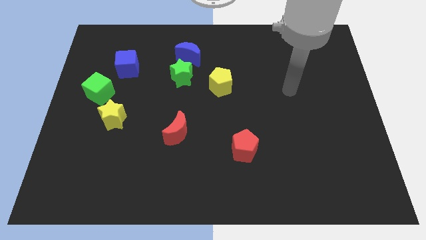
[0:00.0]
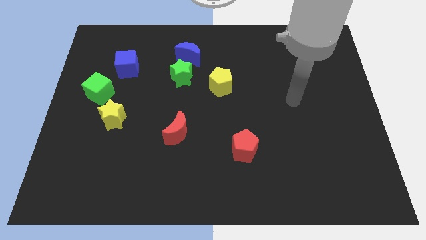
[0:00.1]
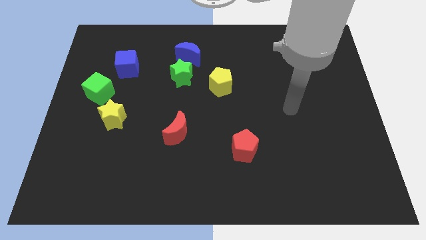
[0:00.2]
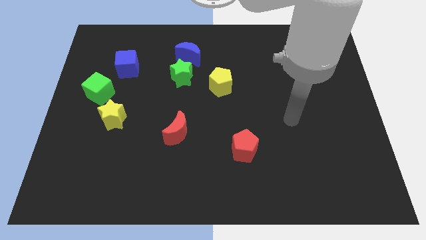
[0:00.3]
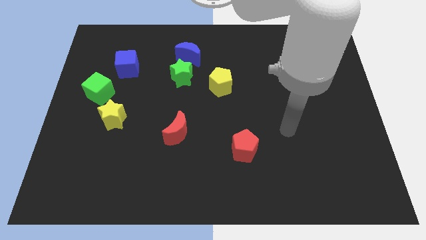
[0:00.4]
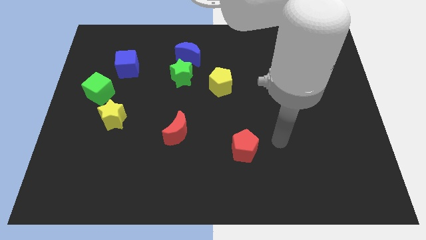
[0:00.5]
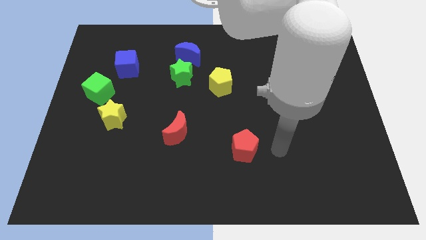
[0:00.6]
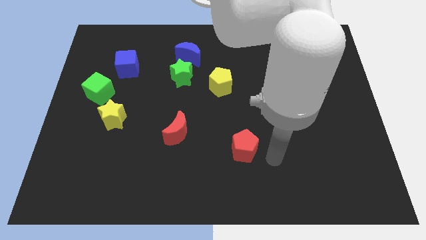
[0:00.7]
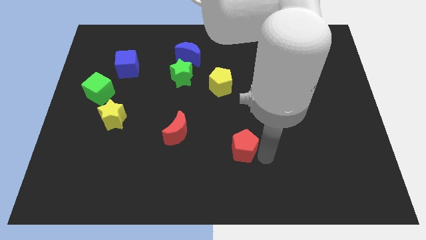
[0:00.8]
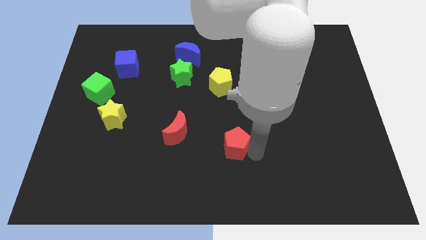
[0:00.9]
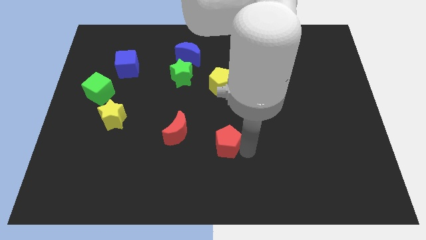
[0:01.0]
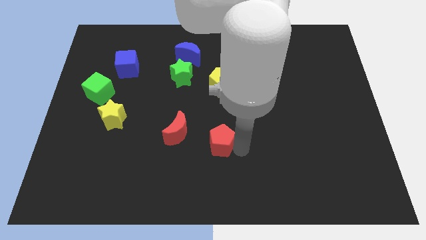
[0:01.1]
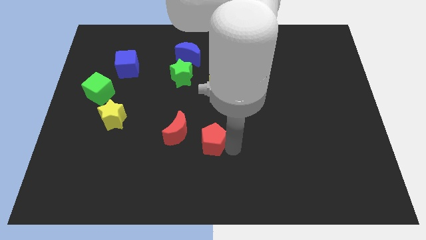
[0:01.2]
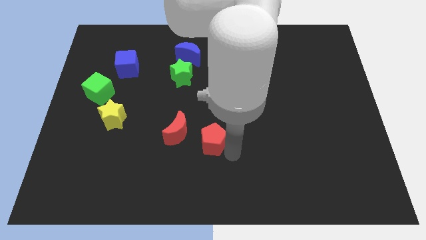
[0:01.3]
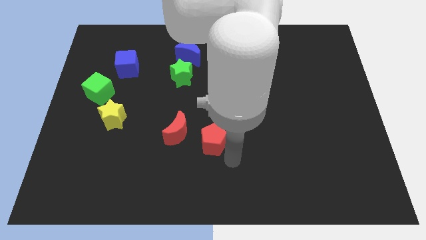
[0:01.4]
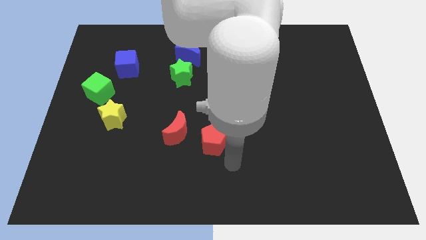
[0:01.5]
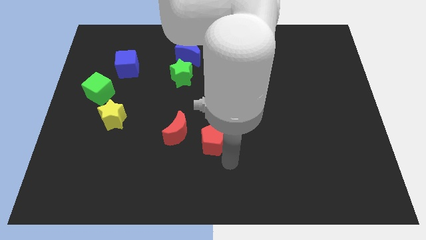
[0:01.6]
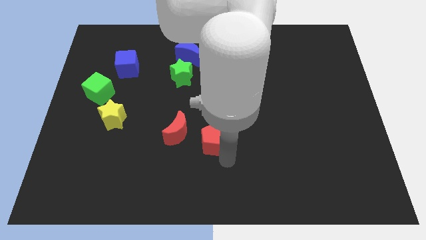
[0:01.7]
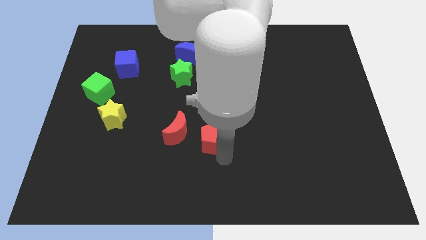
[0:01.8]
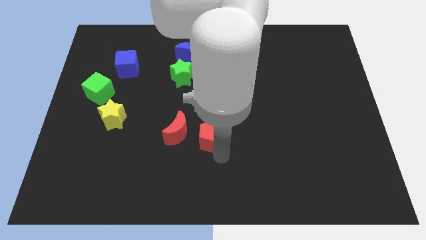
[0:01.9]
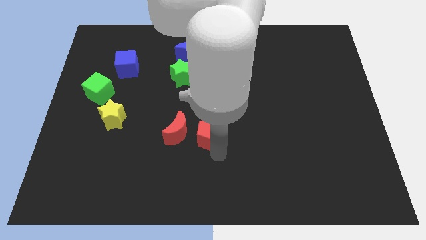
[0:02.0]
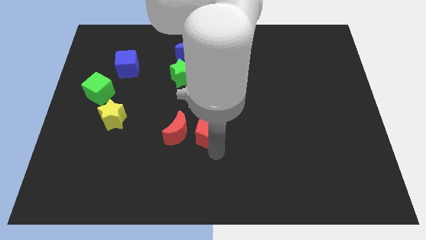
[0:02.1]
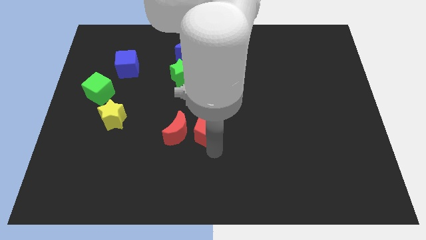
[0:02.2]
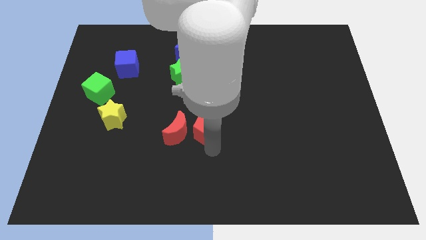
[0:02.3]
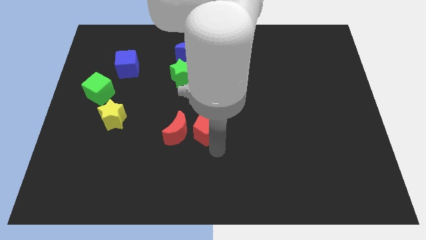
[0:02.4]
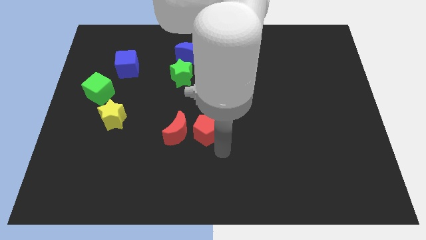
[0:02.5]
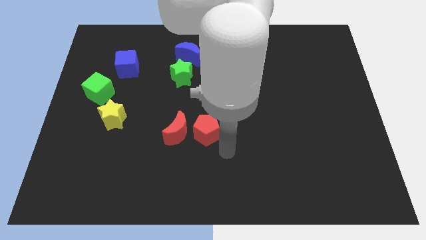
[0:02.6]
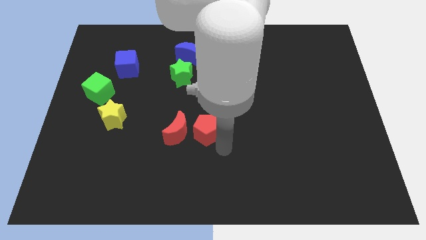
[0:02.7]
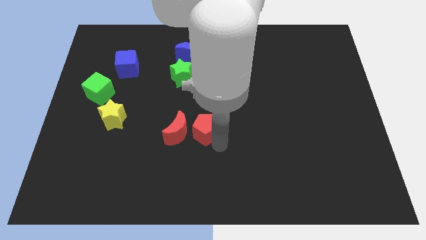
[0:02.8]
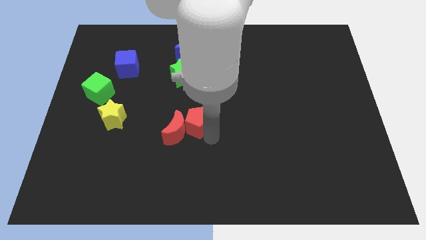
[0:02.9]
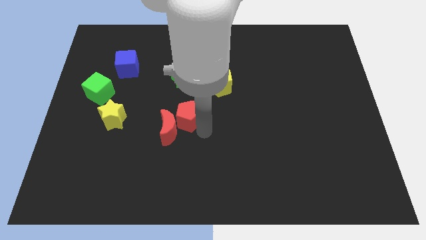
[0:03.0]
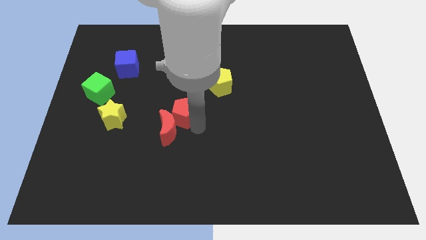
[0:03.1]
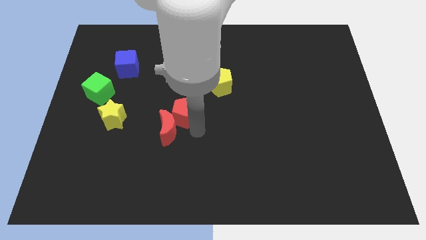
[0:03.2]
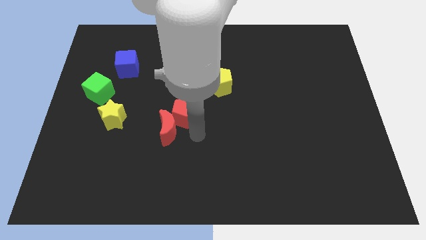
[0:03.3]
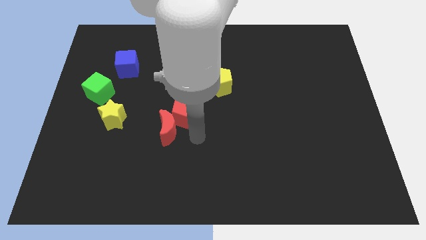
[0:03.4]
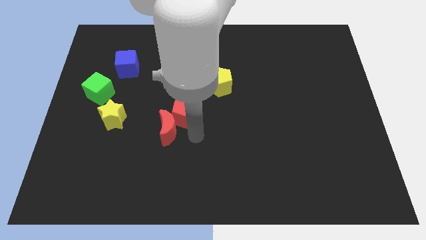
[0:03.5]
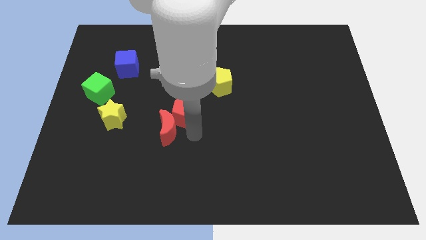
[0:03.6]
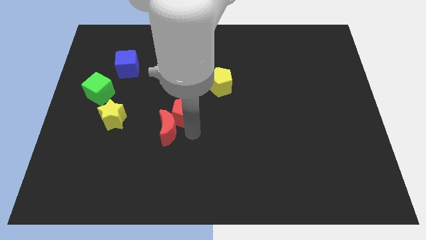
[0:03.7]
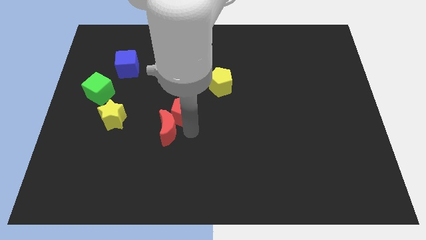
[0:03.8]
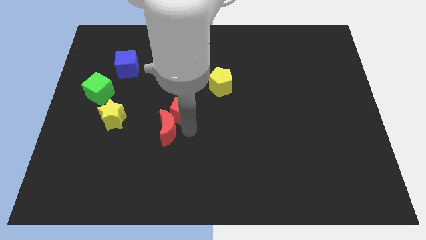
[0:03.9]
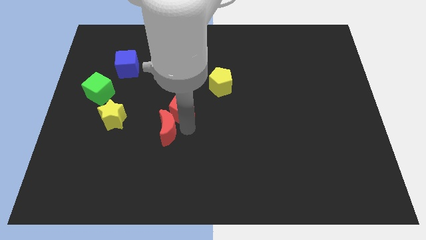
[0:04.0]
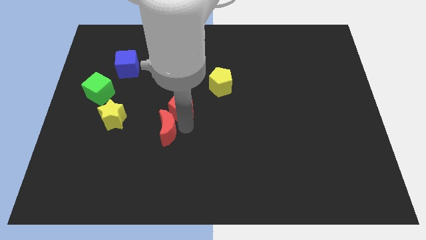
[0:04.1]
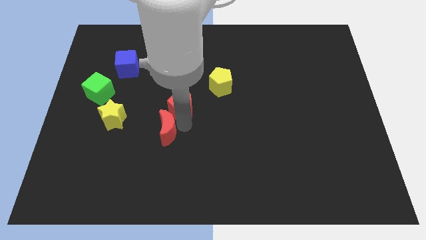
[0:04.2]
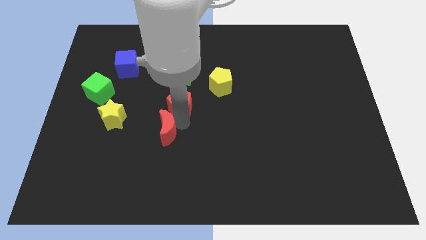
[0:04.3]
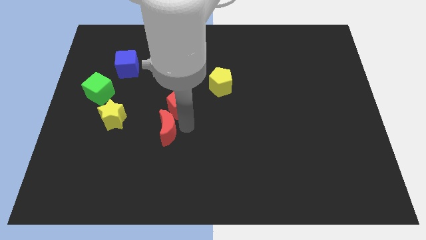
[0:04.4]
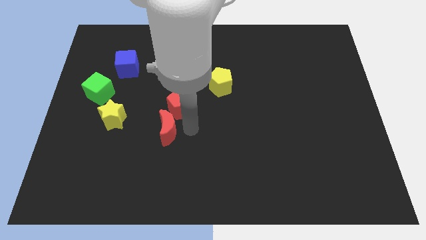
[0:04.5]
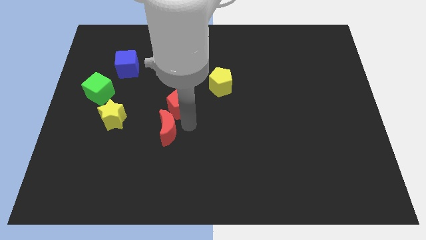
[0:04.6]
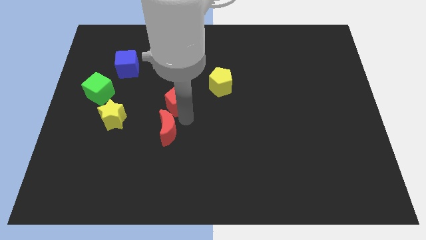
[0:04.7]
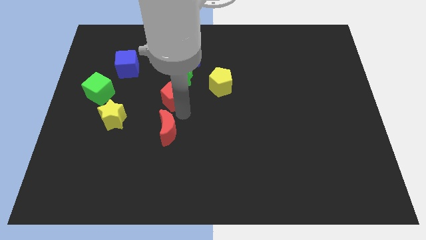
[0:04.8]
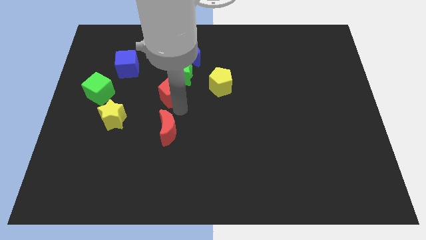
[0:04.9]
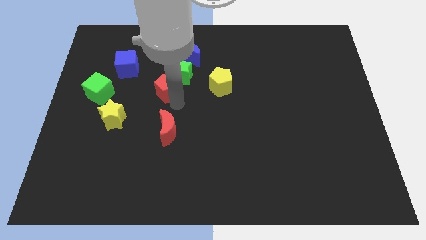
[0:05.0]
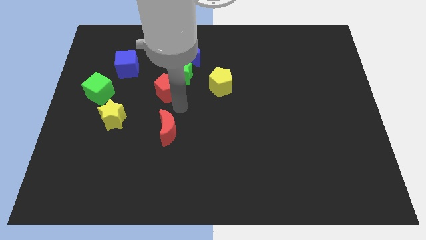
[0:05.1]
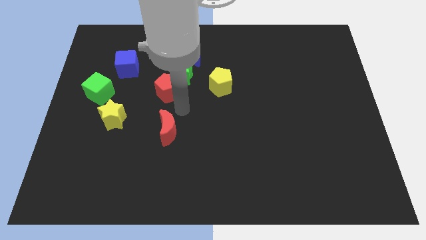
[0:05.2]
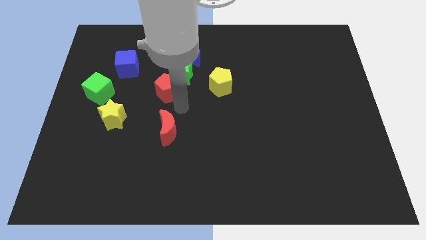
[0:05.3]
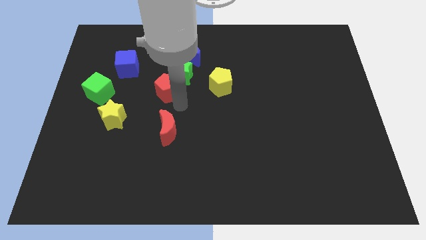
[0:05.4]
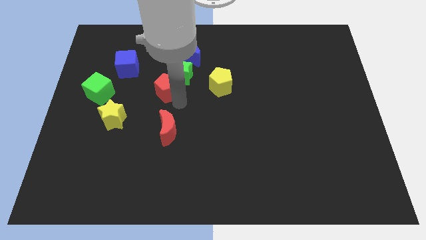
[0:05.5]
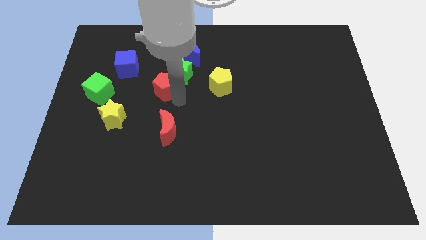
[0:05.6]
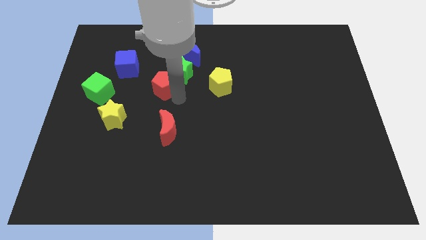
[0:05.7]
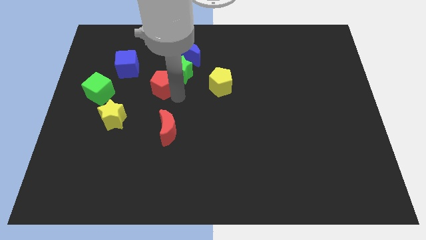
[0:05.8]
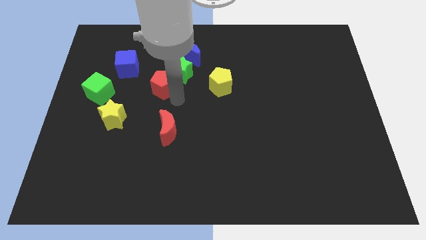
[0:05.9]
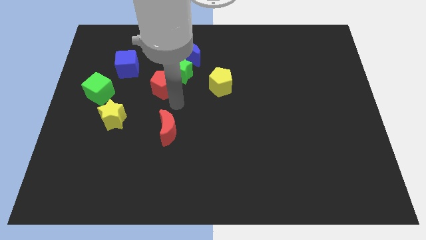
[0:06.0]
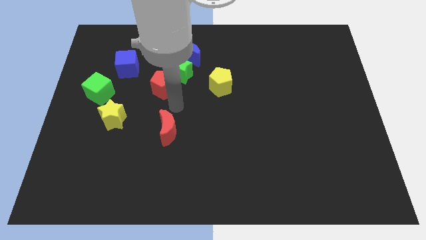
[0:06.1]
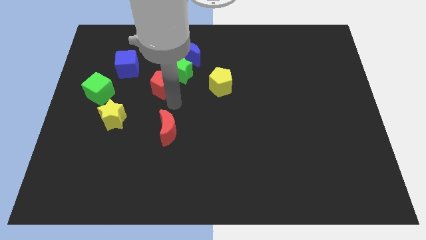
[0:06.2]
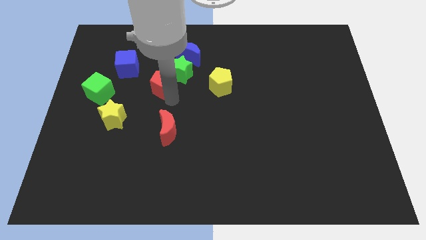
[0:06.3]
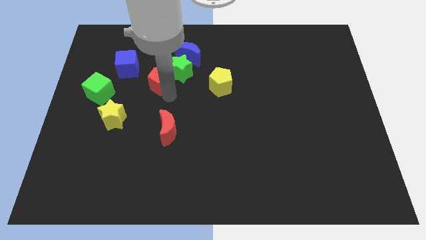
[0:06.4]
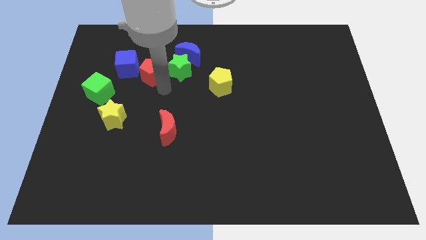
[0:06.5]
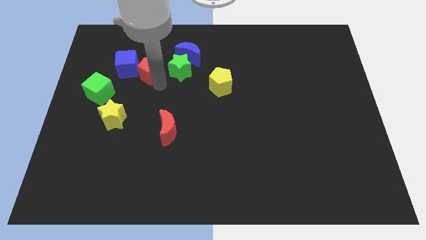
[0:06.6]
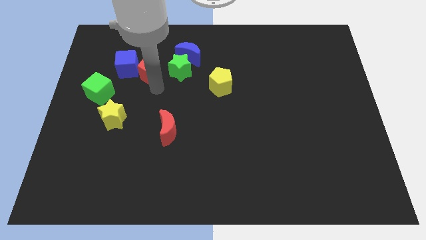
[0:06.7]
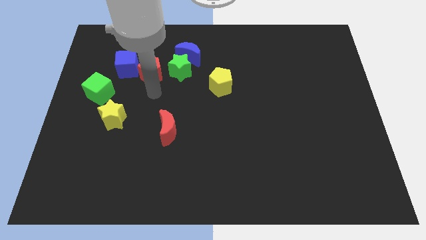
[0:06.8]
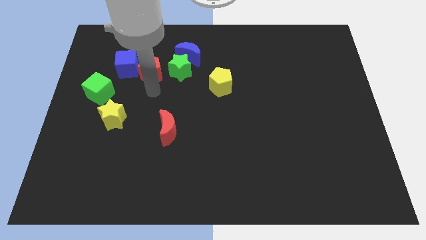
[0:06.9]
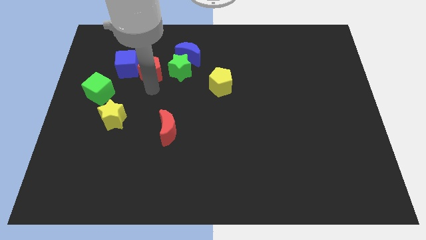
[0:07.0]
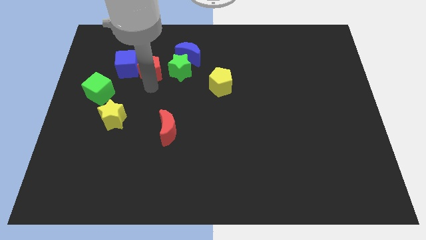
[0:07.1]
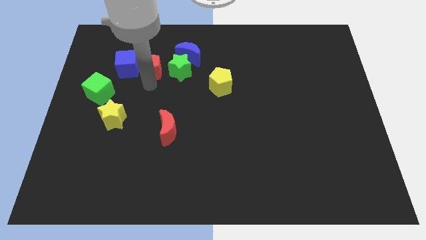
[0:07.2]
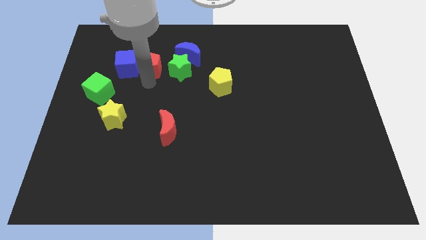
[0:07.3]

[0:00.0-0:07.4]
slide the red pentagon to the left of the blue moon
